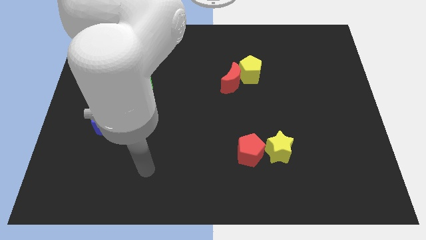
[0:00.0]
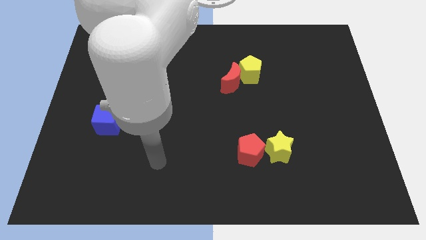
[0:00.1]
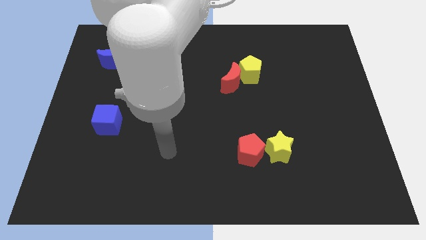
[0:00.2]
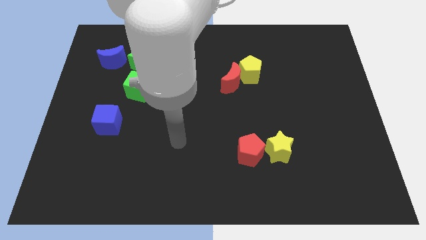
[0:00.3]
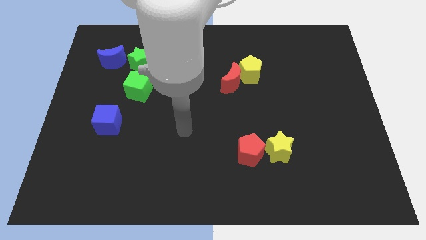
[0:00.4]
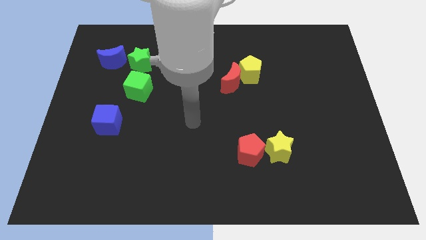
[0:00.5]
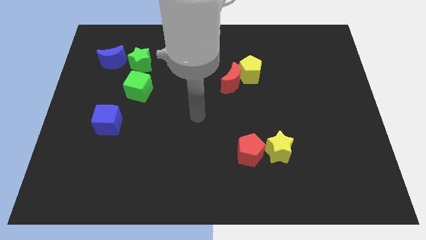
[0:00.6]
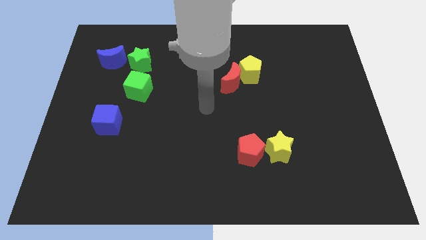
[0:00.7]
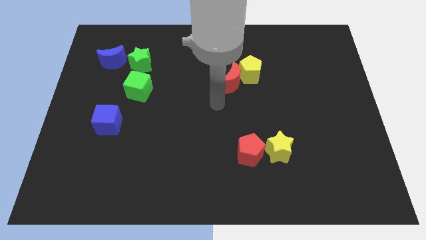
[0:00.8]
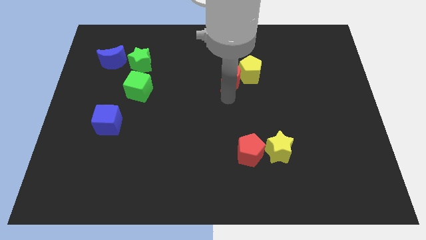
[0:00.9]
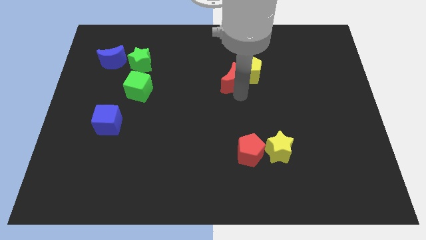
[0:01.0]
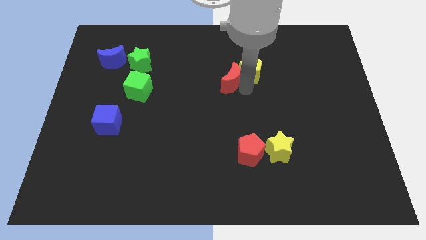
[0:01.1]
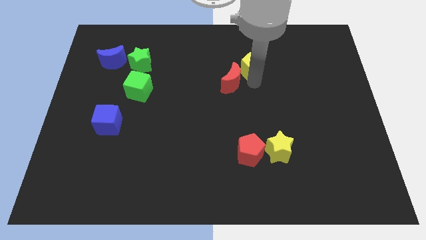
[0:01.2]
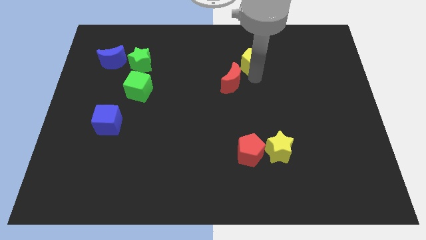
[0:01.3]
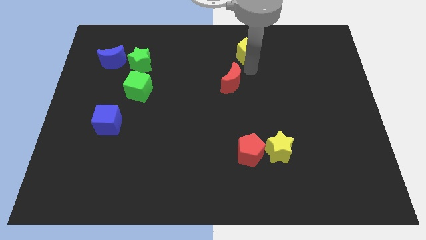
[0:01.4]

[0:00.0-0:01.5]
pull the red moon apart from the yellow pentagon

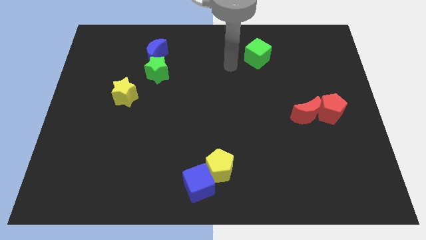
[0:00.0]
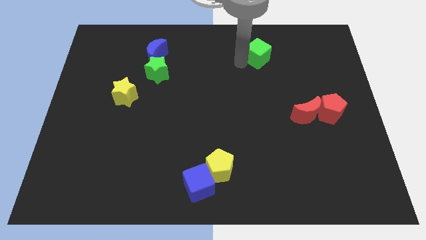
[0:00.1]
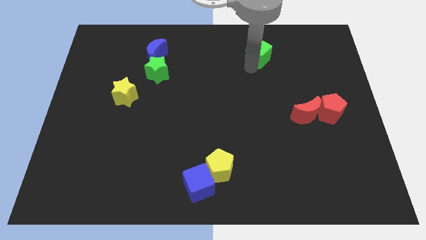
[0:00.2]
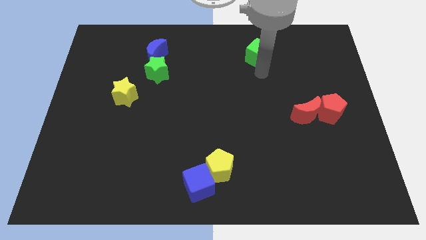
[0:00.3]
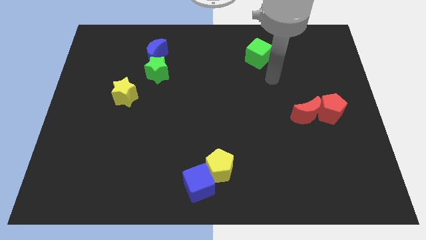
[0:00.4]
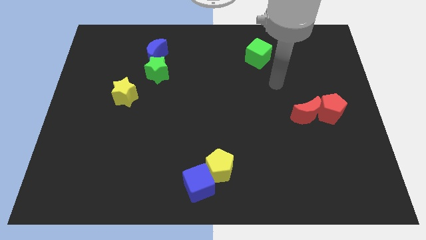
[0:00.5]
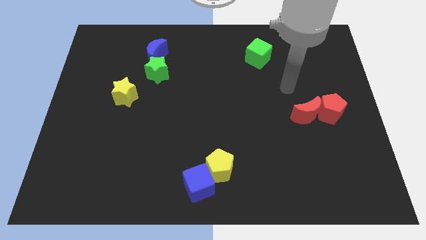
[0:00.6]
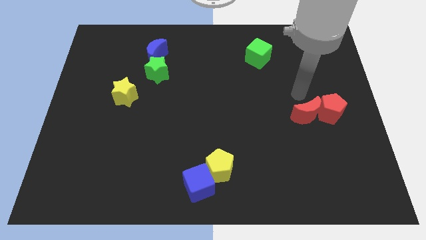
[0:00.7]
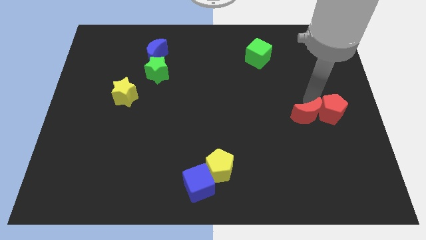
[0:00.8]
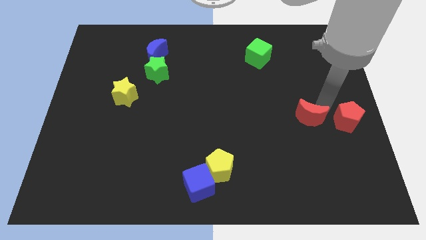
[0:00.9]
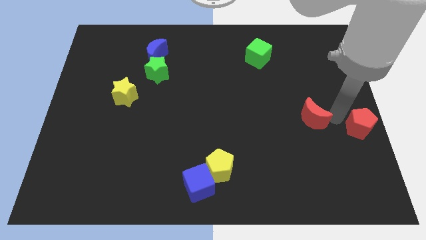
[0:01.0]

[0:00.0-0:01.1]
separate the red moon from the red pentagon

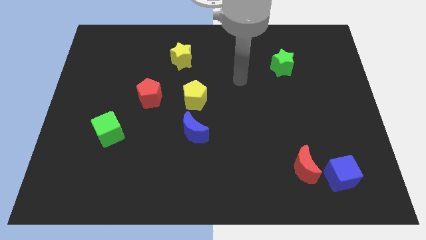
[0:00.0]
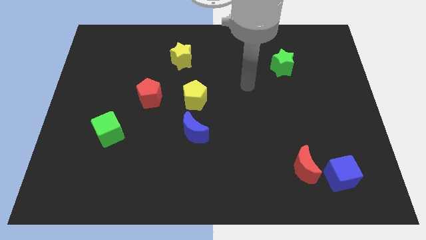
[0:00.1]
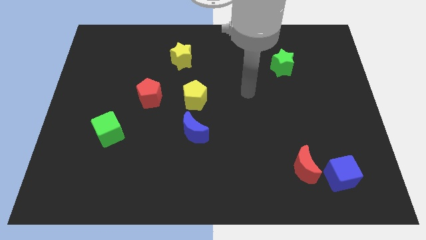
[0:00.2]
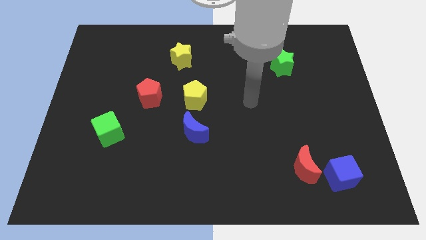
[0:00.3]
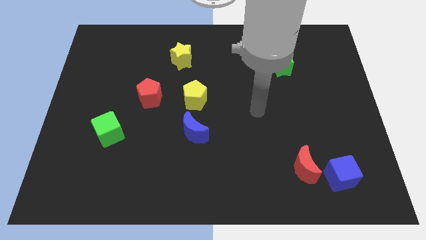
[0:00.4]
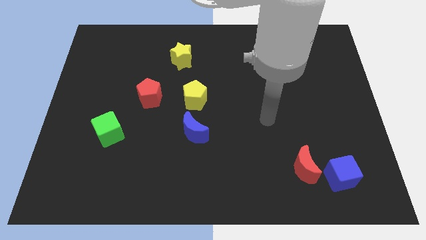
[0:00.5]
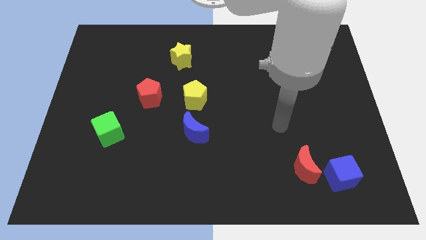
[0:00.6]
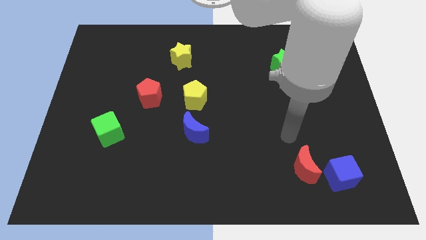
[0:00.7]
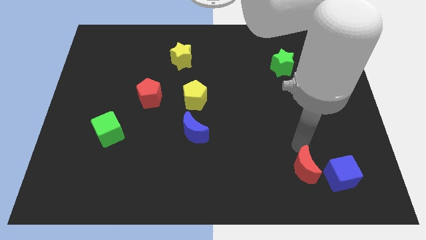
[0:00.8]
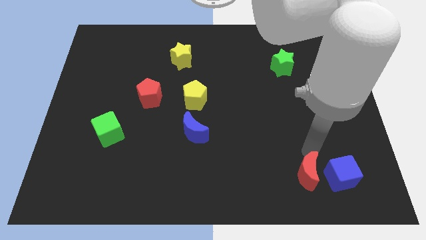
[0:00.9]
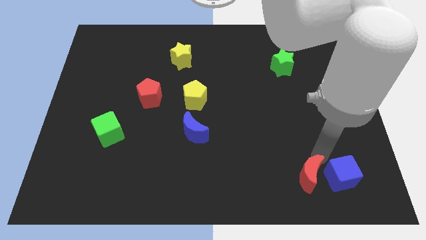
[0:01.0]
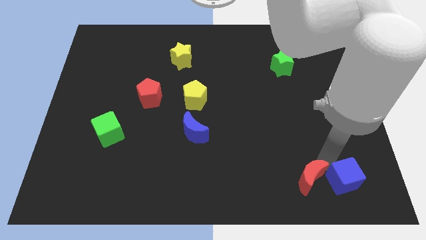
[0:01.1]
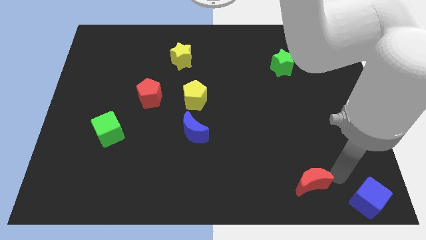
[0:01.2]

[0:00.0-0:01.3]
pull the red moon apart from the blue cube

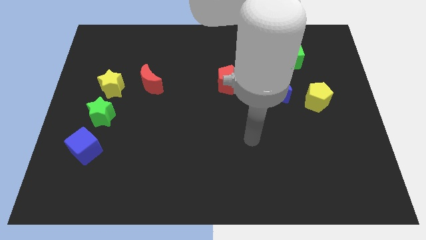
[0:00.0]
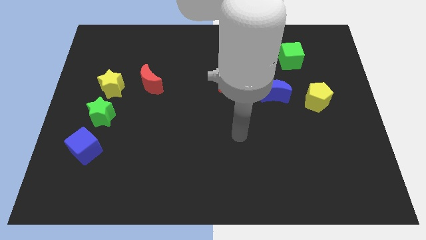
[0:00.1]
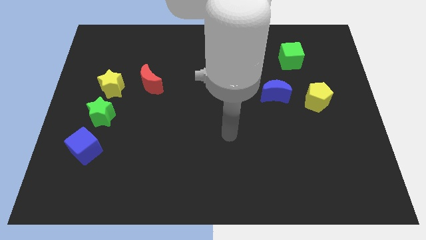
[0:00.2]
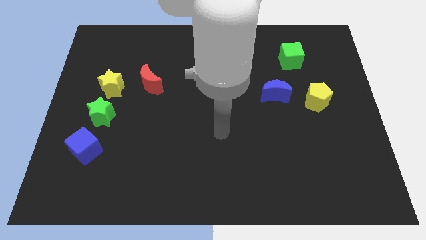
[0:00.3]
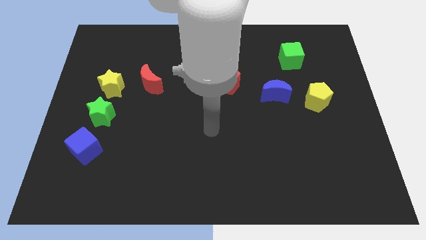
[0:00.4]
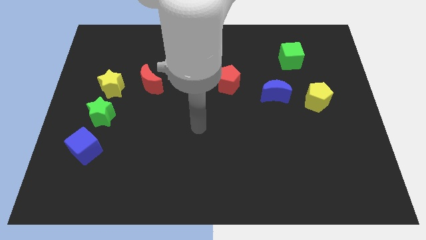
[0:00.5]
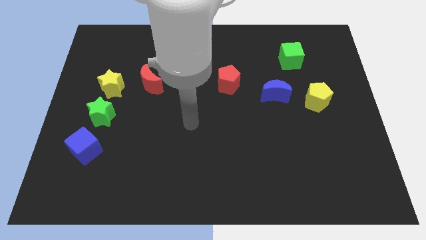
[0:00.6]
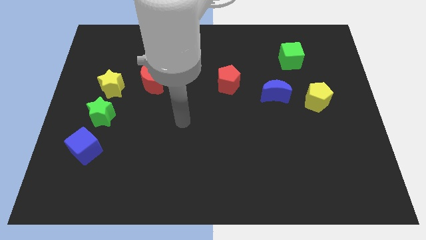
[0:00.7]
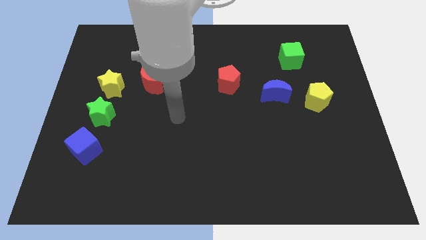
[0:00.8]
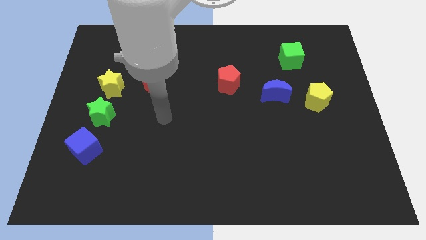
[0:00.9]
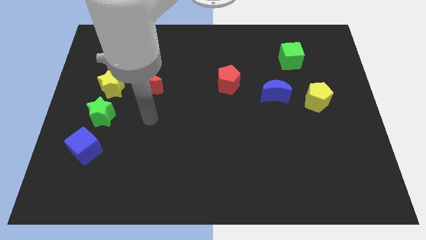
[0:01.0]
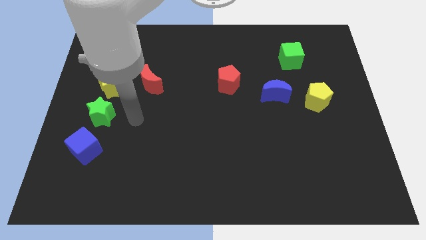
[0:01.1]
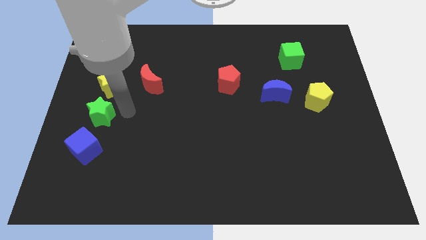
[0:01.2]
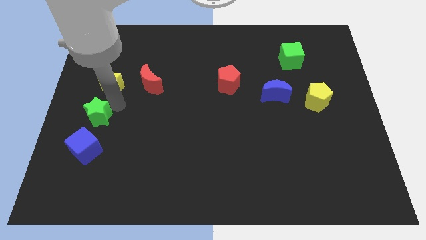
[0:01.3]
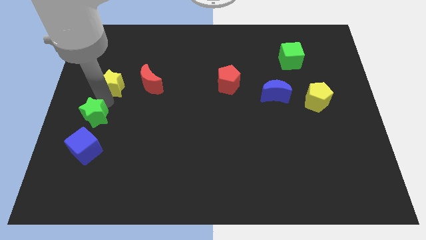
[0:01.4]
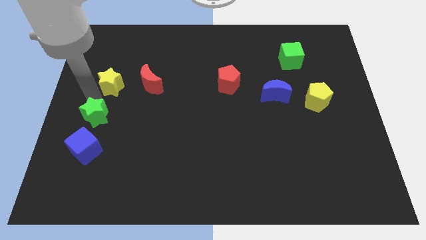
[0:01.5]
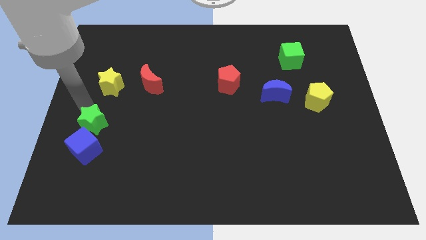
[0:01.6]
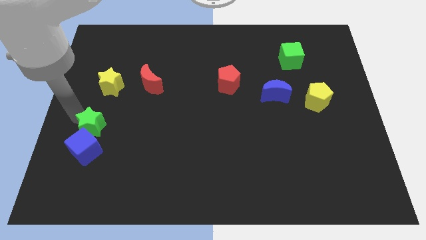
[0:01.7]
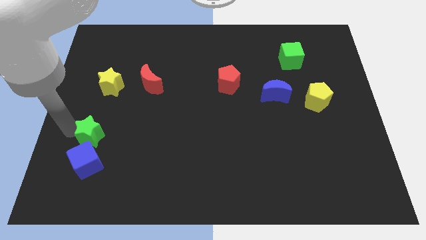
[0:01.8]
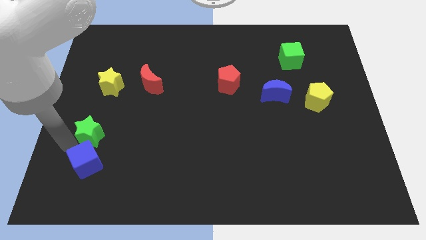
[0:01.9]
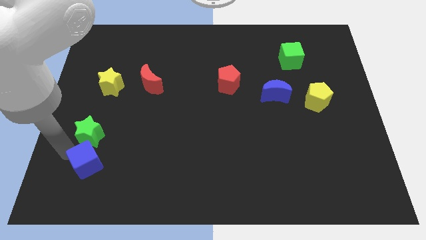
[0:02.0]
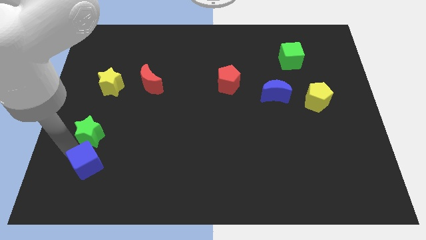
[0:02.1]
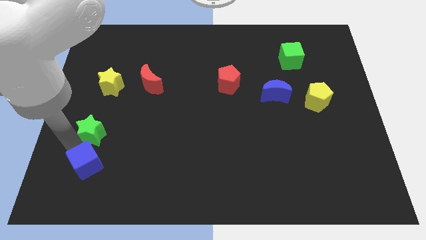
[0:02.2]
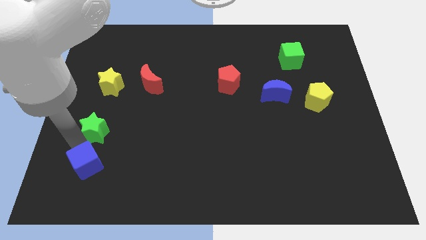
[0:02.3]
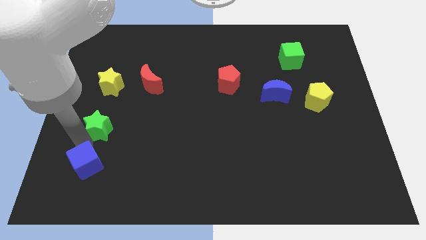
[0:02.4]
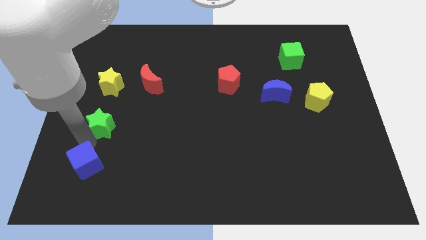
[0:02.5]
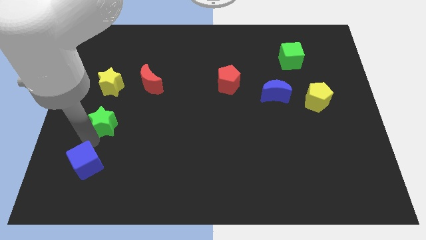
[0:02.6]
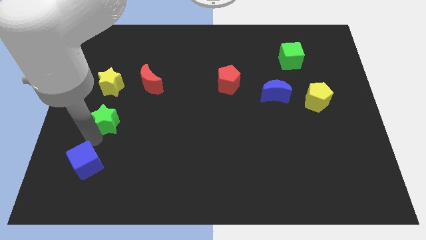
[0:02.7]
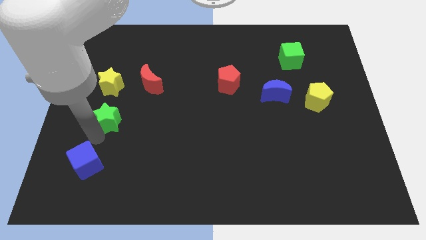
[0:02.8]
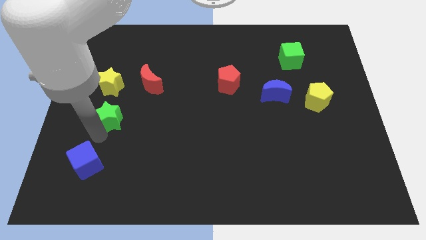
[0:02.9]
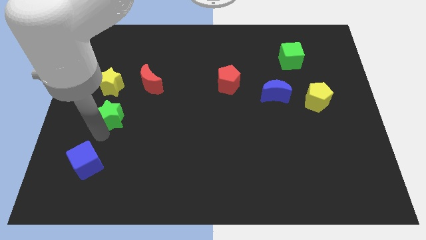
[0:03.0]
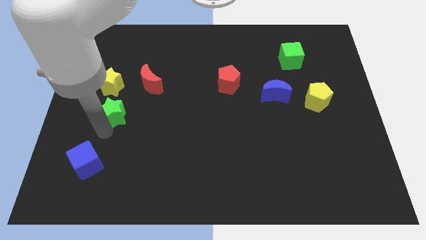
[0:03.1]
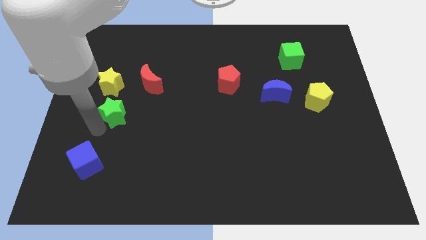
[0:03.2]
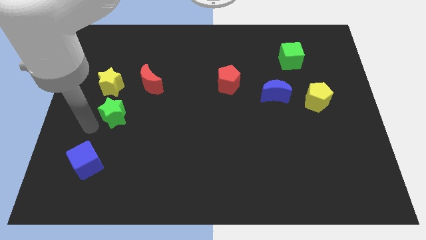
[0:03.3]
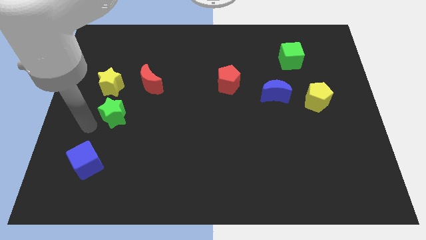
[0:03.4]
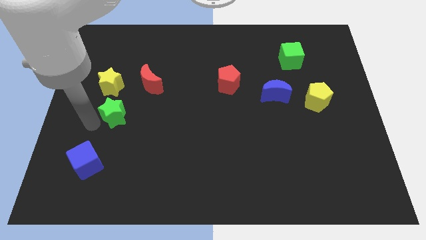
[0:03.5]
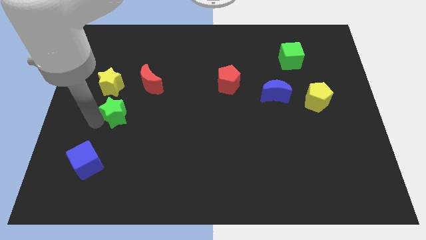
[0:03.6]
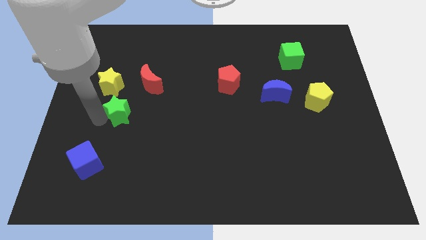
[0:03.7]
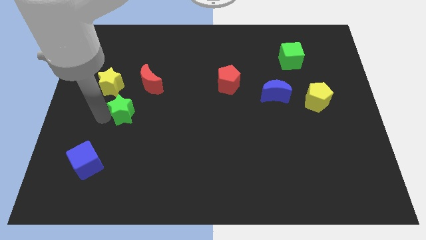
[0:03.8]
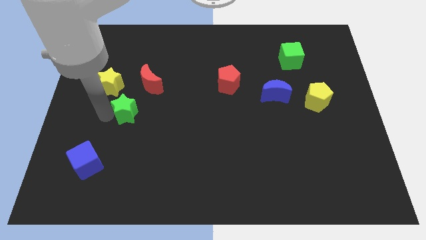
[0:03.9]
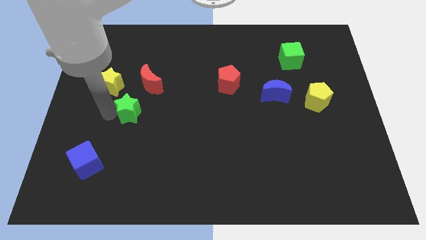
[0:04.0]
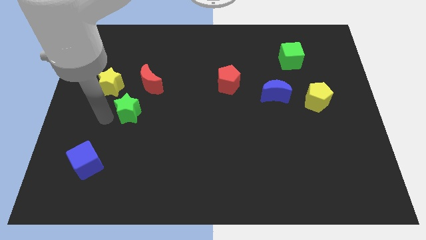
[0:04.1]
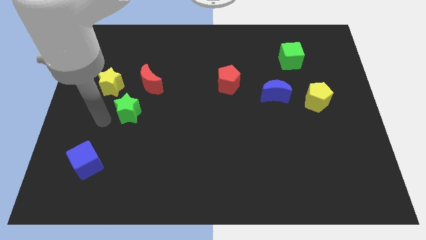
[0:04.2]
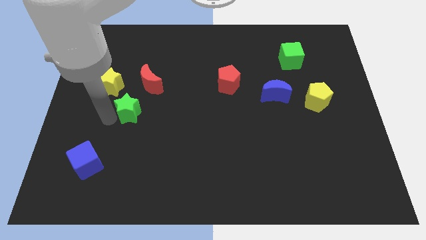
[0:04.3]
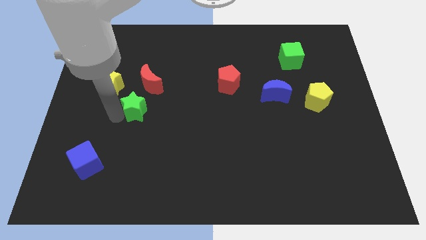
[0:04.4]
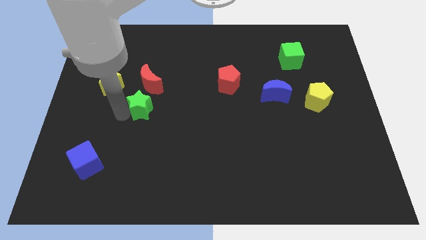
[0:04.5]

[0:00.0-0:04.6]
pull the green star apart from the yellow star and blue cube

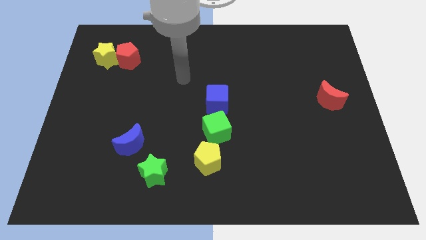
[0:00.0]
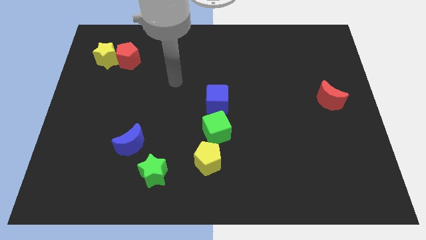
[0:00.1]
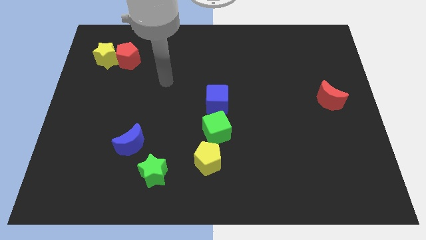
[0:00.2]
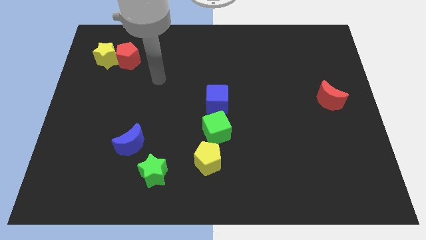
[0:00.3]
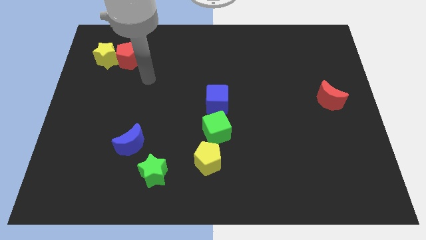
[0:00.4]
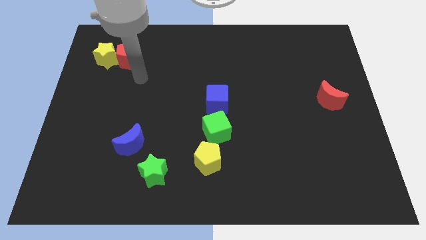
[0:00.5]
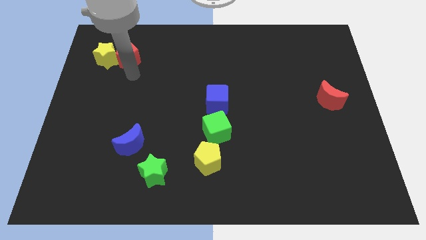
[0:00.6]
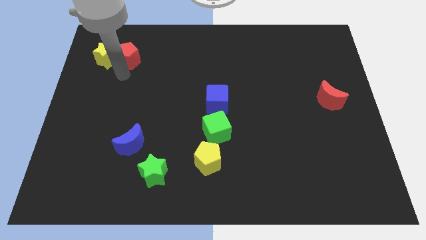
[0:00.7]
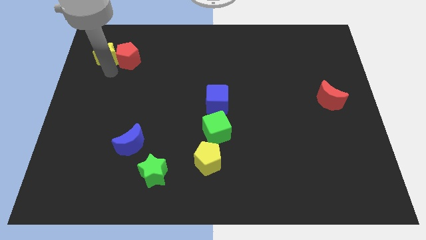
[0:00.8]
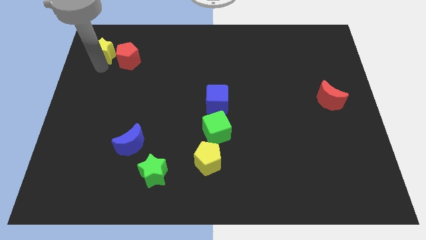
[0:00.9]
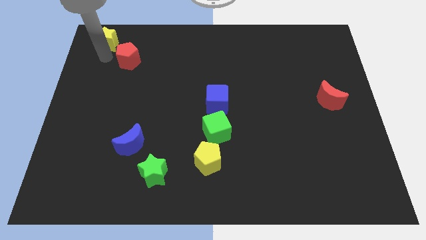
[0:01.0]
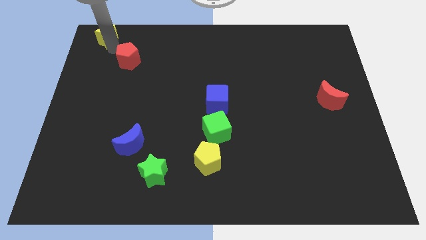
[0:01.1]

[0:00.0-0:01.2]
separate the red pentagon from the yellow star
